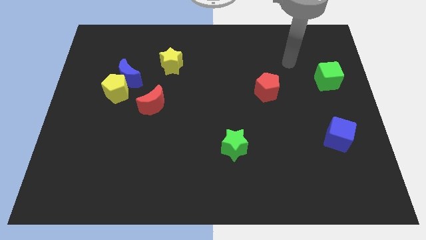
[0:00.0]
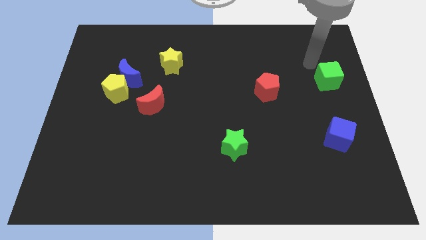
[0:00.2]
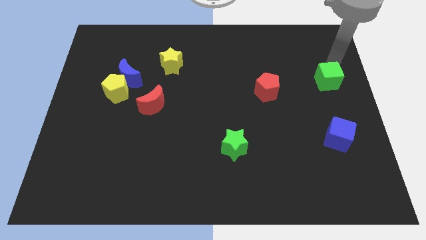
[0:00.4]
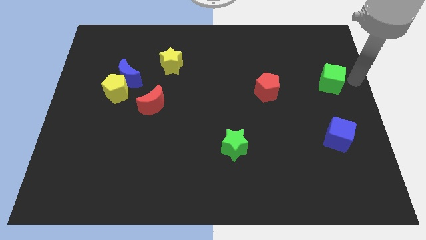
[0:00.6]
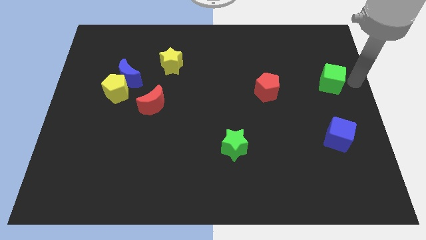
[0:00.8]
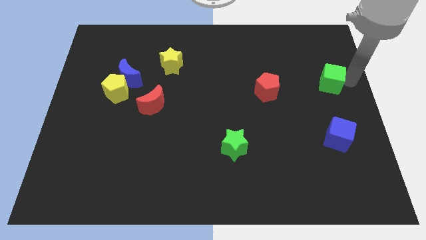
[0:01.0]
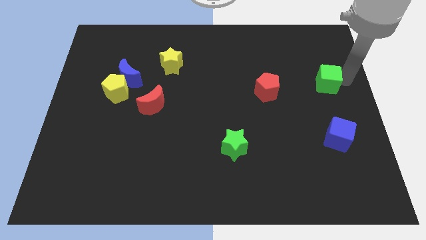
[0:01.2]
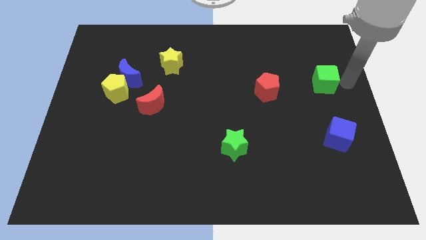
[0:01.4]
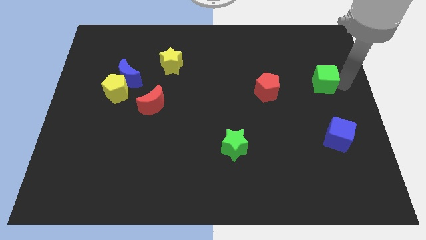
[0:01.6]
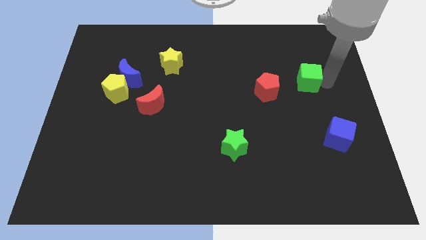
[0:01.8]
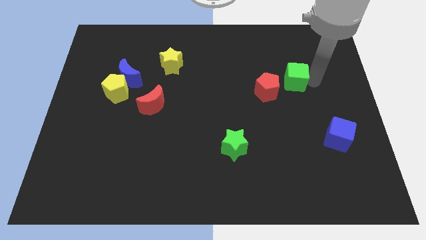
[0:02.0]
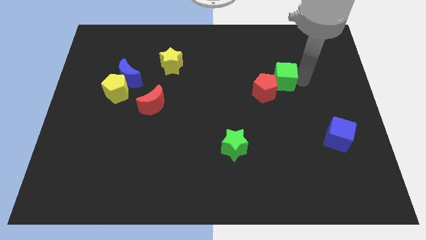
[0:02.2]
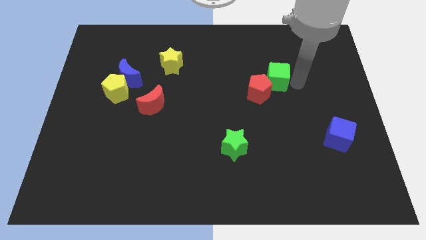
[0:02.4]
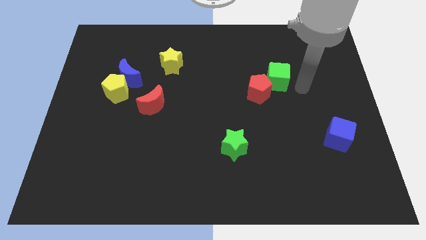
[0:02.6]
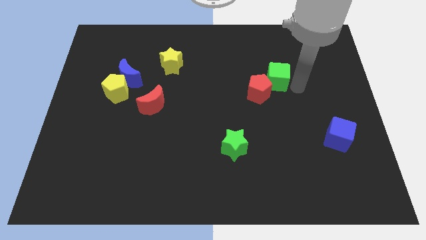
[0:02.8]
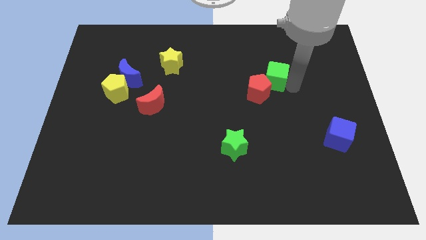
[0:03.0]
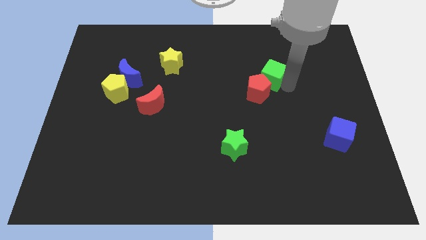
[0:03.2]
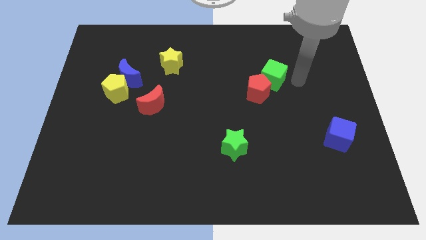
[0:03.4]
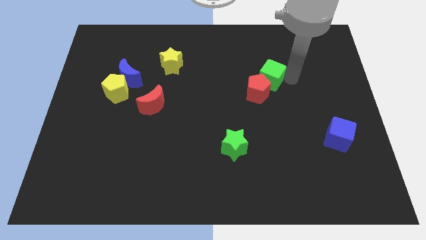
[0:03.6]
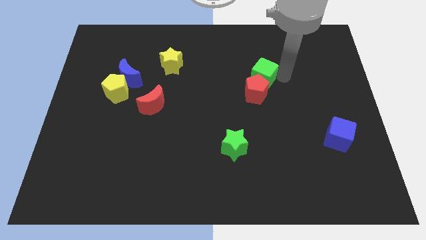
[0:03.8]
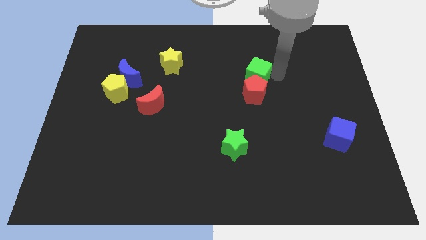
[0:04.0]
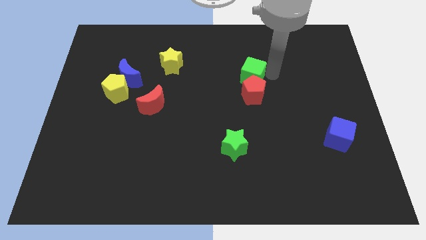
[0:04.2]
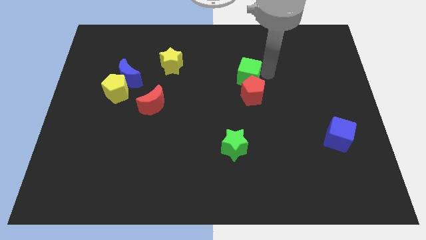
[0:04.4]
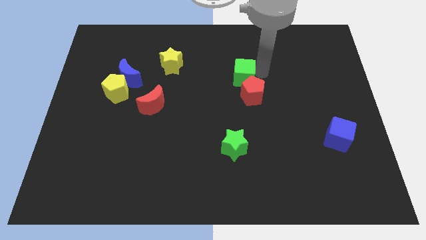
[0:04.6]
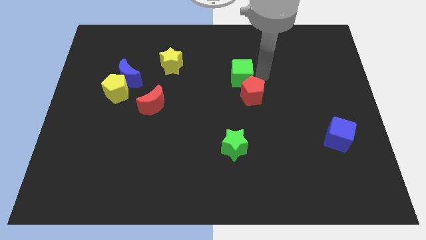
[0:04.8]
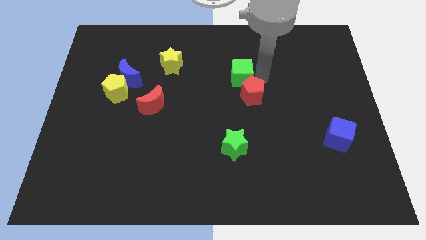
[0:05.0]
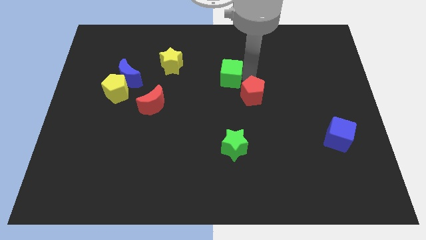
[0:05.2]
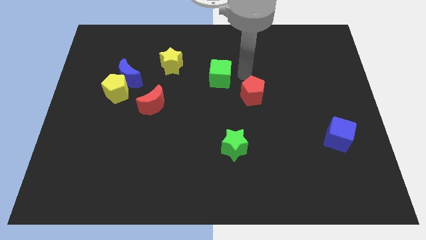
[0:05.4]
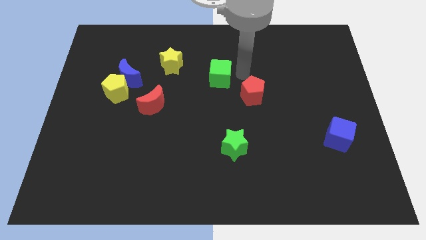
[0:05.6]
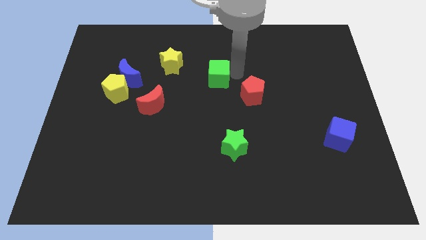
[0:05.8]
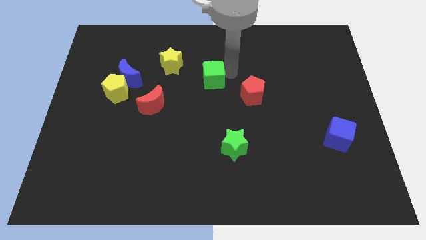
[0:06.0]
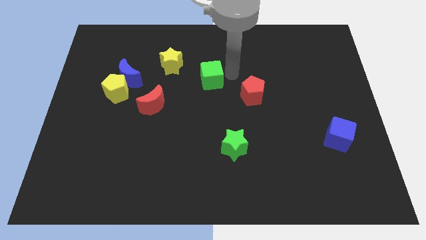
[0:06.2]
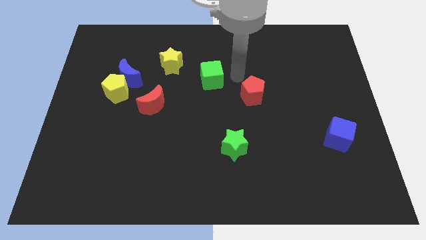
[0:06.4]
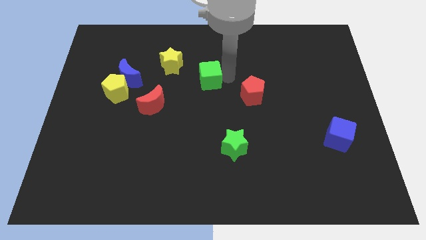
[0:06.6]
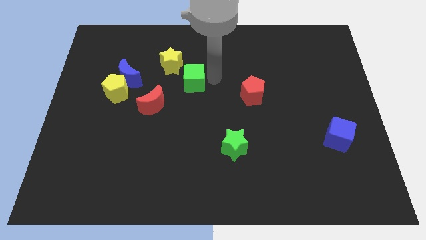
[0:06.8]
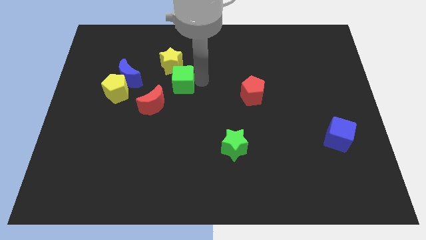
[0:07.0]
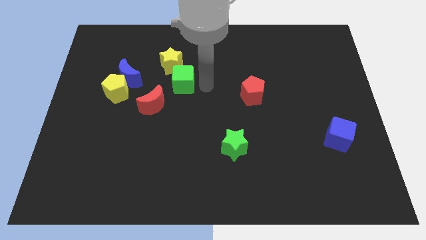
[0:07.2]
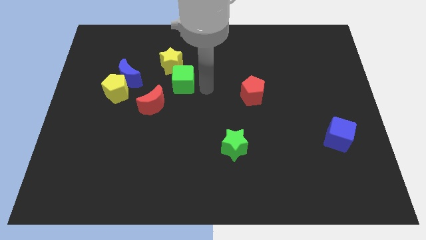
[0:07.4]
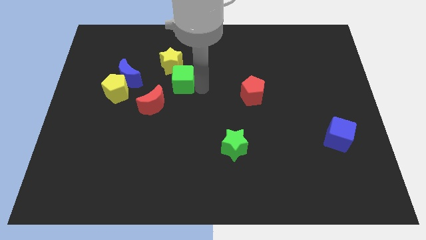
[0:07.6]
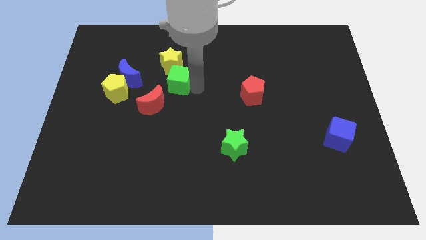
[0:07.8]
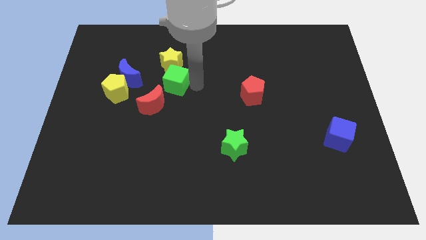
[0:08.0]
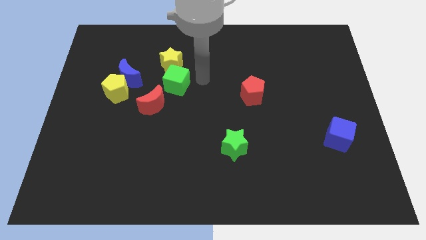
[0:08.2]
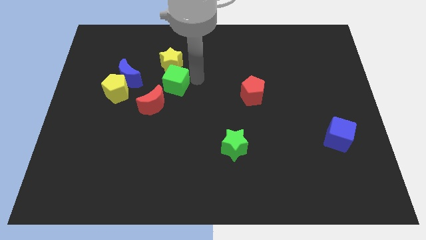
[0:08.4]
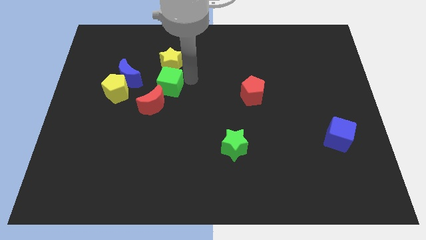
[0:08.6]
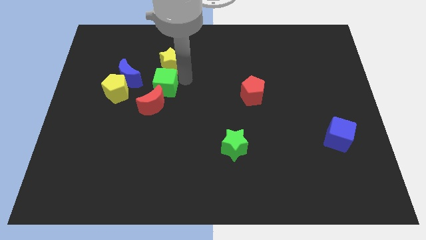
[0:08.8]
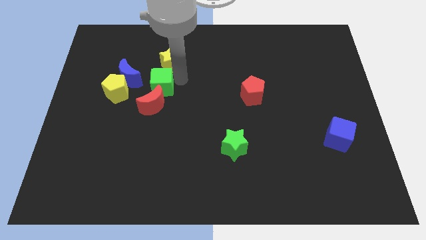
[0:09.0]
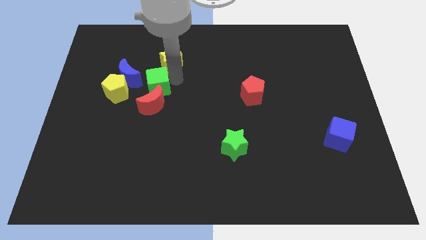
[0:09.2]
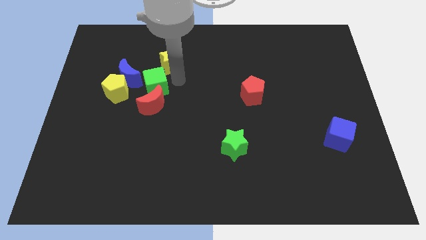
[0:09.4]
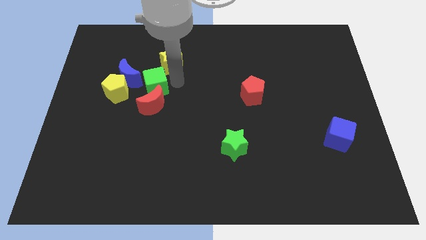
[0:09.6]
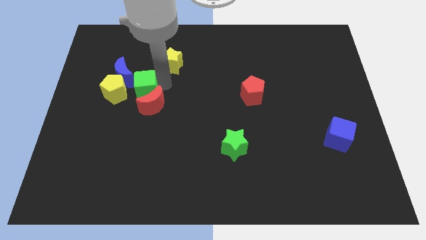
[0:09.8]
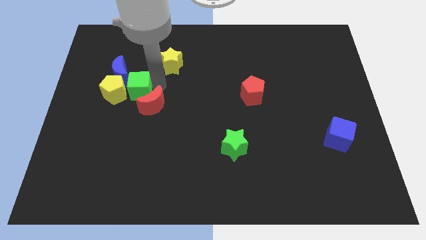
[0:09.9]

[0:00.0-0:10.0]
move the green cube towards the yellow pentagon

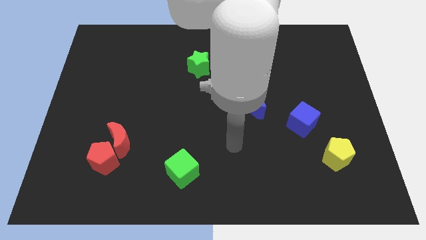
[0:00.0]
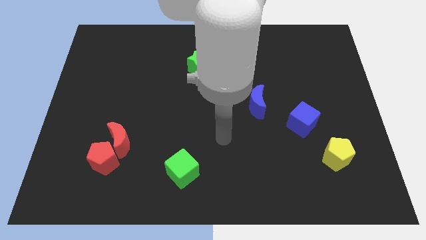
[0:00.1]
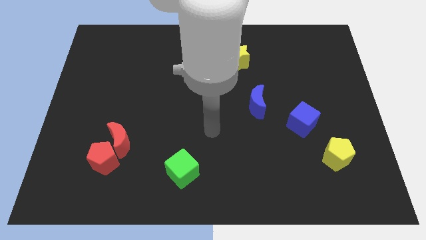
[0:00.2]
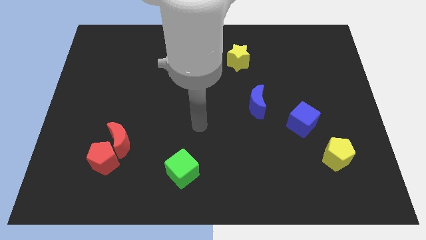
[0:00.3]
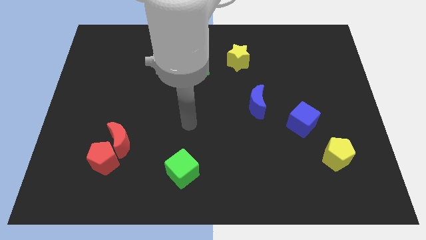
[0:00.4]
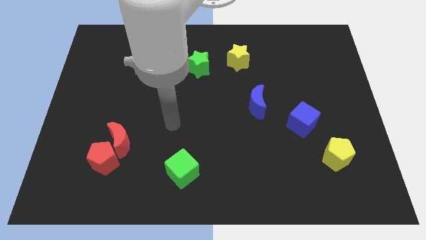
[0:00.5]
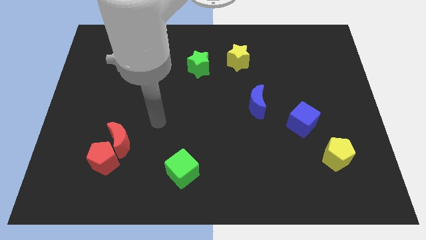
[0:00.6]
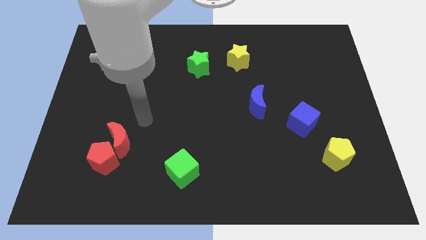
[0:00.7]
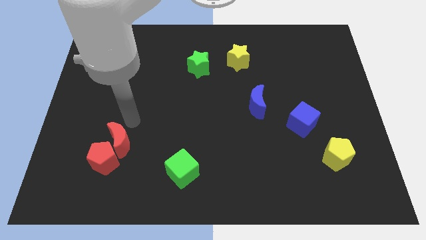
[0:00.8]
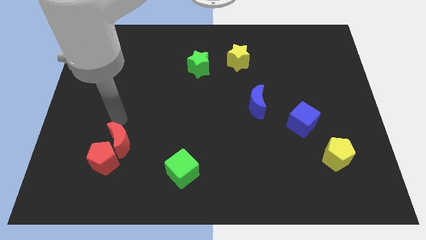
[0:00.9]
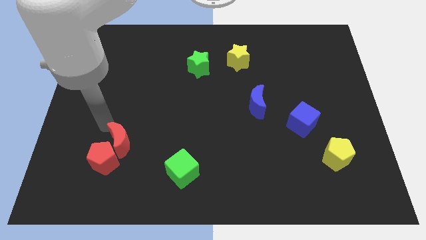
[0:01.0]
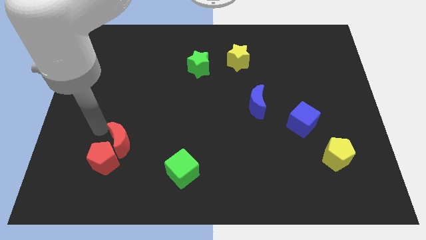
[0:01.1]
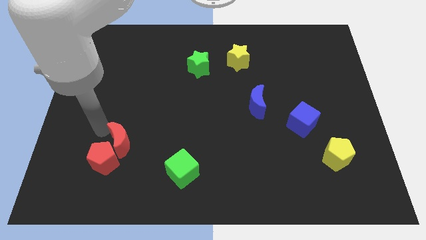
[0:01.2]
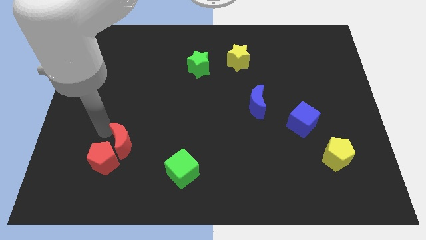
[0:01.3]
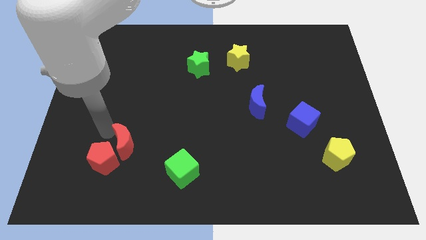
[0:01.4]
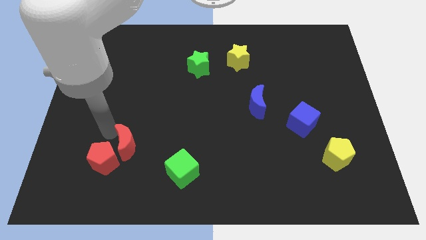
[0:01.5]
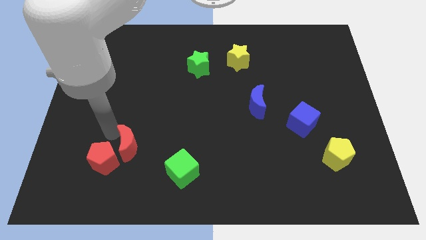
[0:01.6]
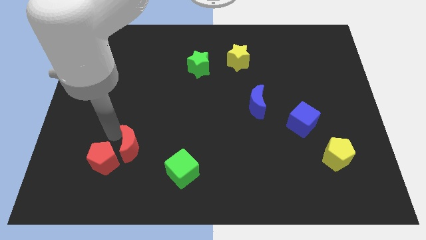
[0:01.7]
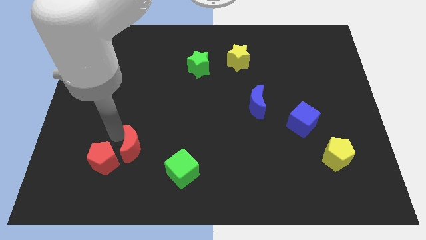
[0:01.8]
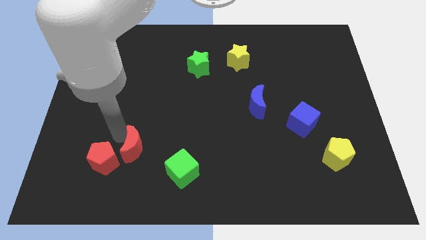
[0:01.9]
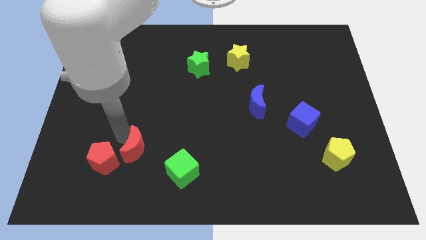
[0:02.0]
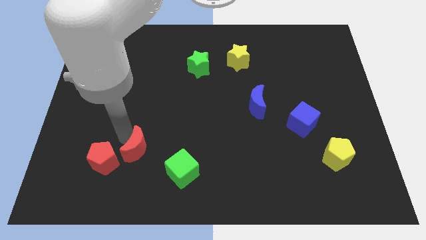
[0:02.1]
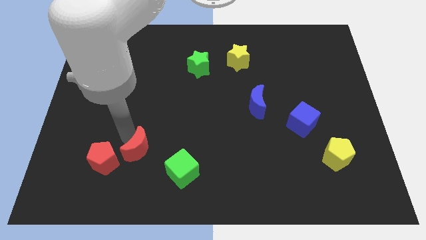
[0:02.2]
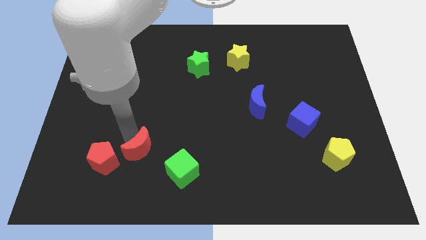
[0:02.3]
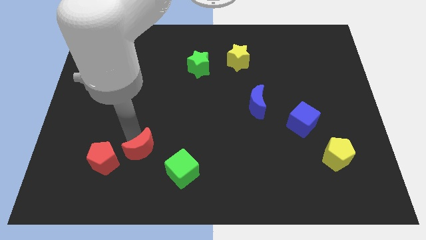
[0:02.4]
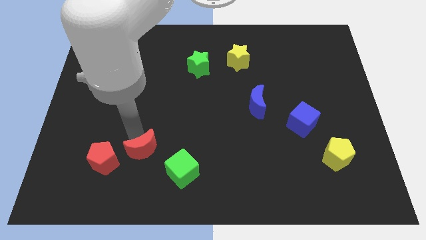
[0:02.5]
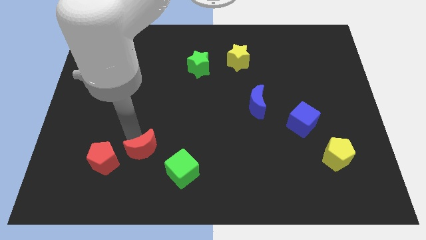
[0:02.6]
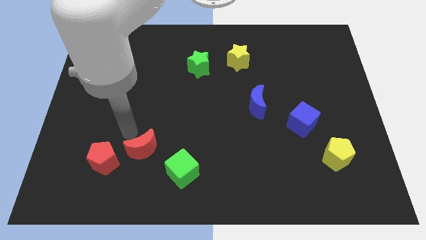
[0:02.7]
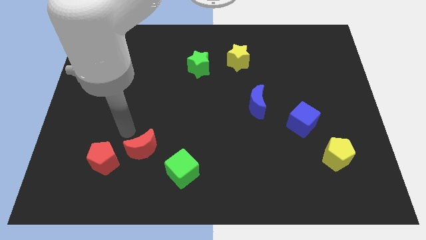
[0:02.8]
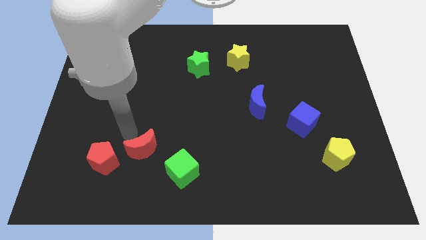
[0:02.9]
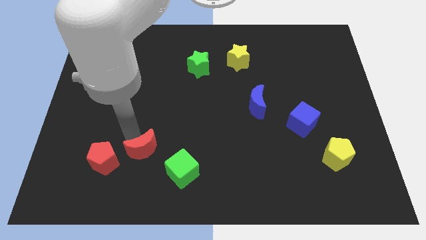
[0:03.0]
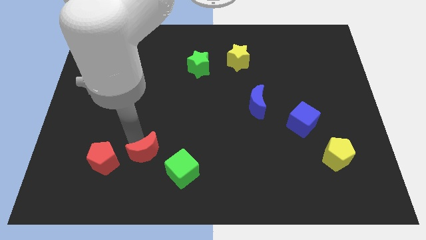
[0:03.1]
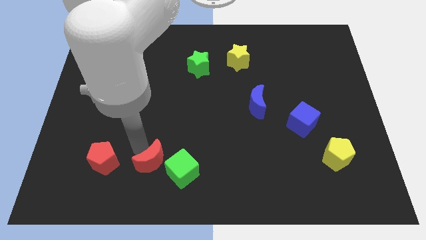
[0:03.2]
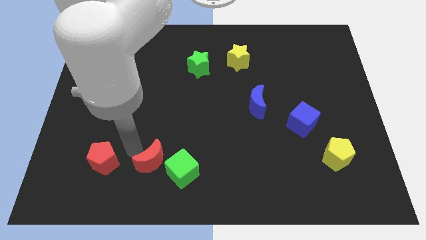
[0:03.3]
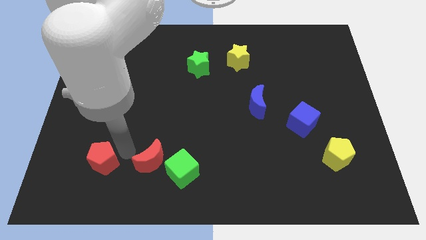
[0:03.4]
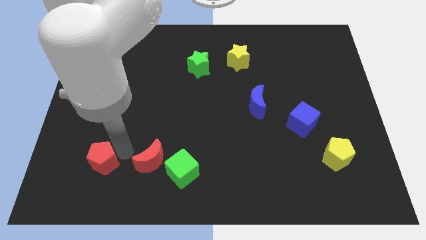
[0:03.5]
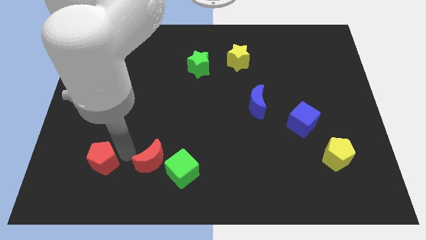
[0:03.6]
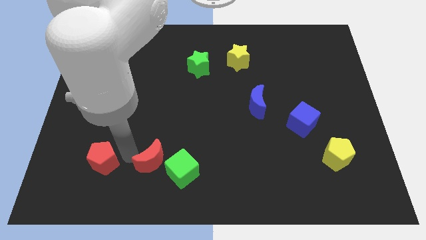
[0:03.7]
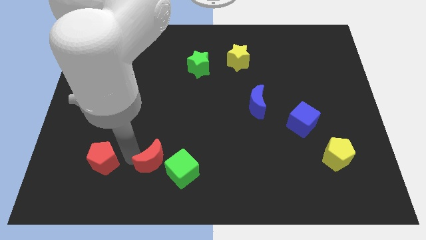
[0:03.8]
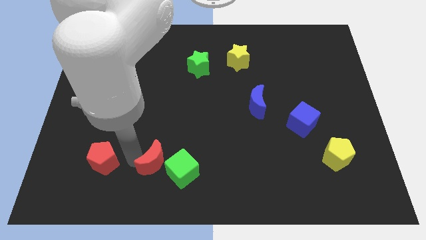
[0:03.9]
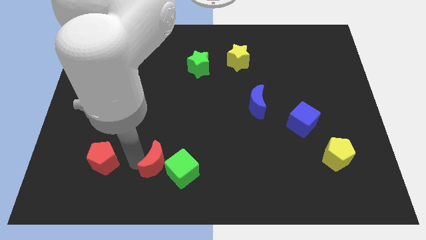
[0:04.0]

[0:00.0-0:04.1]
slide the red moon next to the green cube
